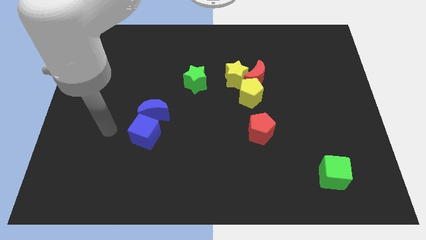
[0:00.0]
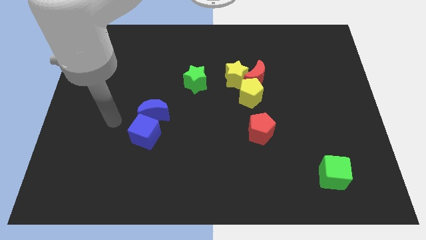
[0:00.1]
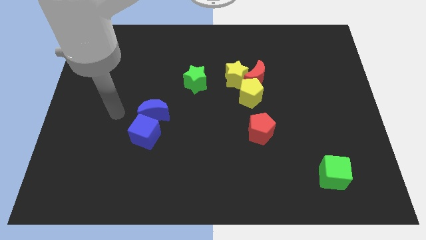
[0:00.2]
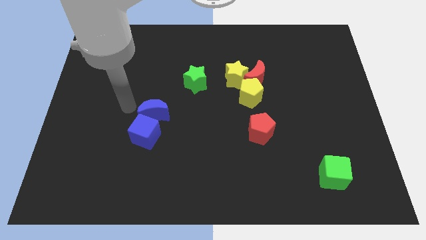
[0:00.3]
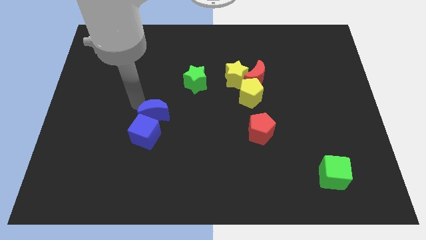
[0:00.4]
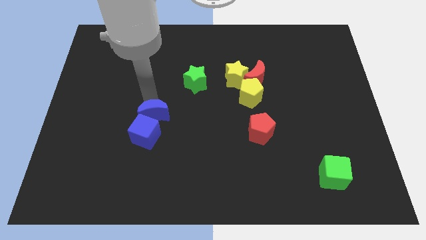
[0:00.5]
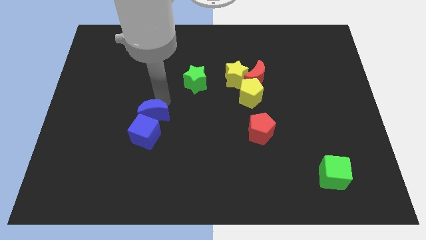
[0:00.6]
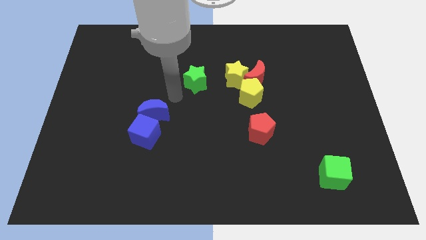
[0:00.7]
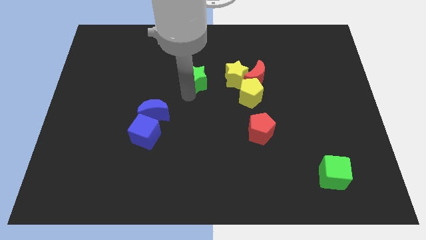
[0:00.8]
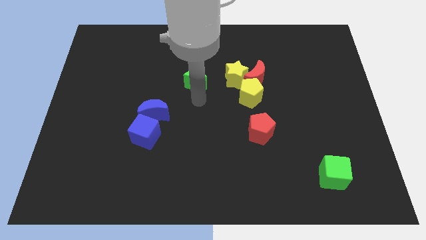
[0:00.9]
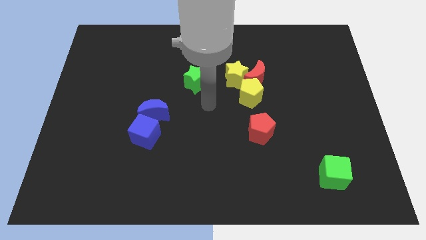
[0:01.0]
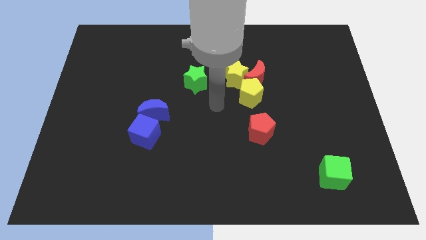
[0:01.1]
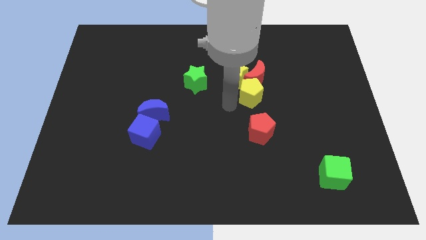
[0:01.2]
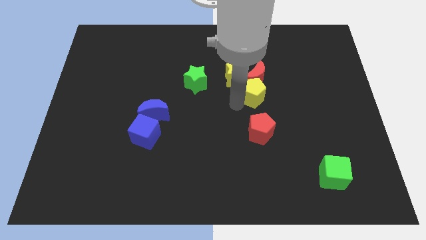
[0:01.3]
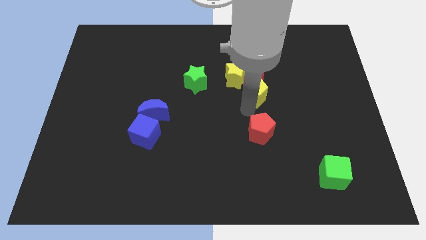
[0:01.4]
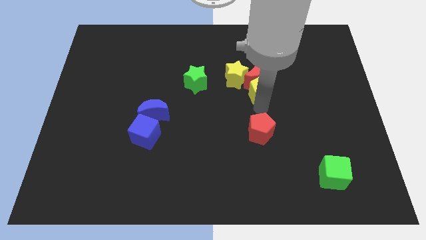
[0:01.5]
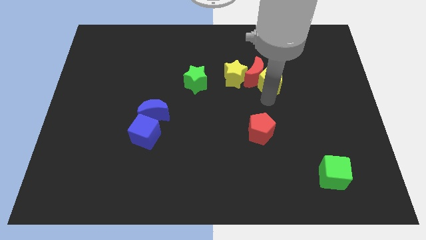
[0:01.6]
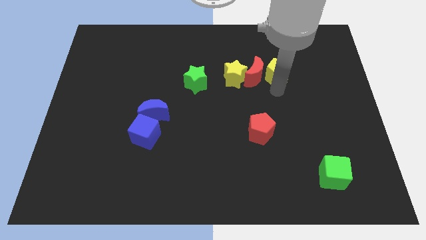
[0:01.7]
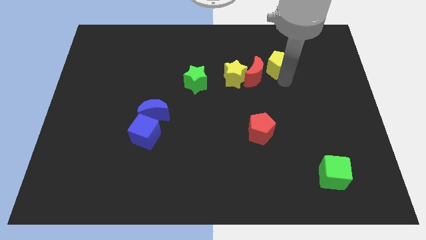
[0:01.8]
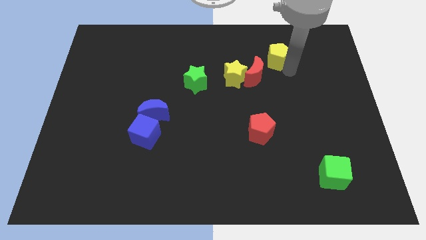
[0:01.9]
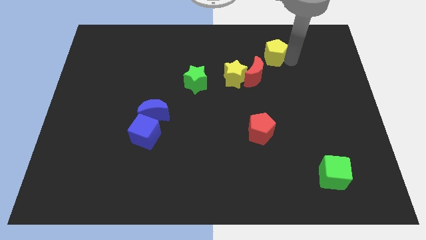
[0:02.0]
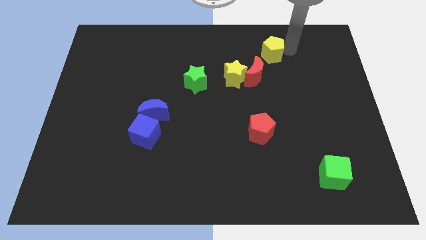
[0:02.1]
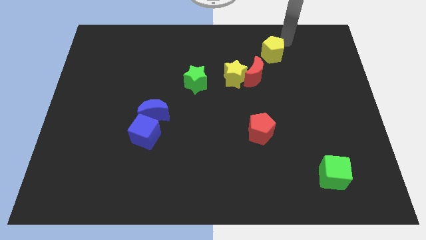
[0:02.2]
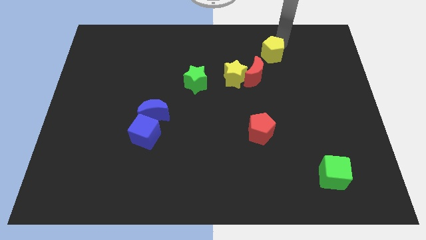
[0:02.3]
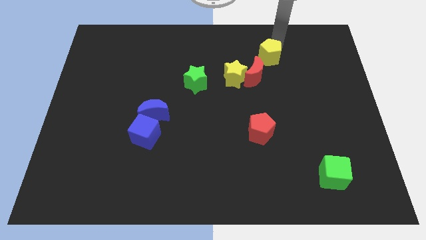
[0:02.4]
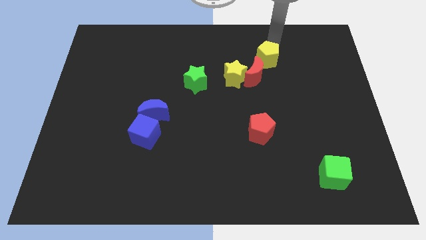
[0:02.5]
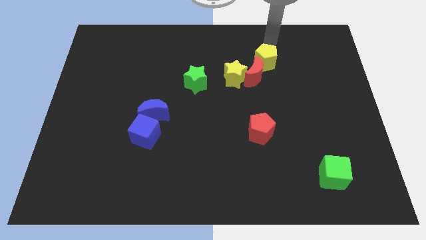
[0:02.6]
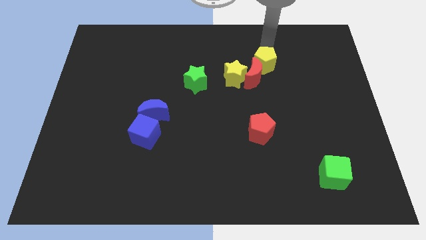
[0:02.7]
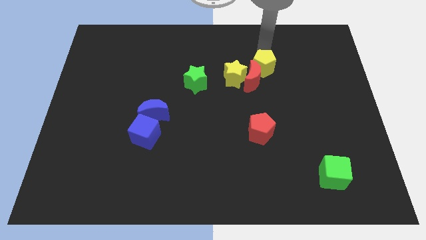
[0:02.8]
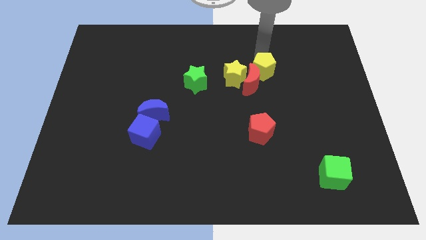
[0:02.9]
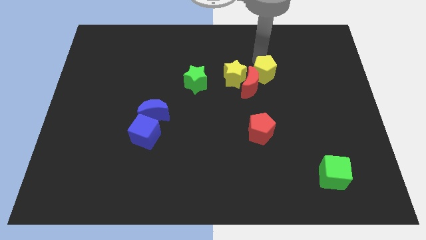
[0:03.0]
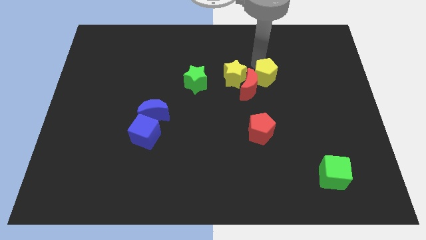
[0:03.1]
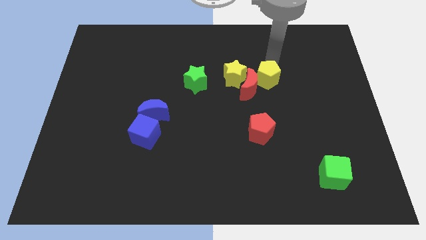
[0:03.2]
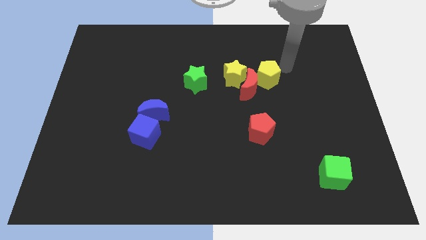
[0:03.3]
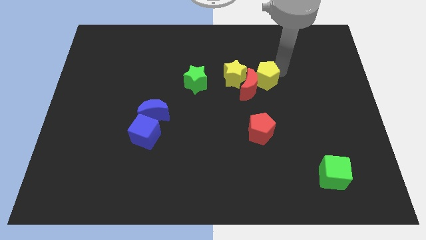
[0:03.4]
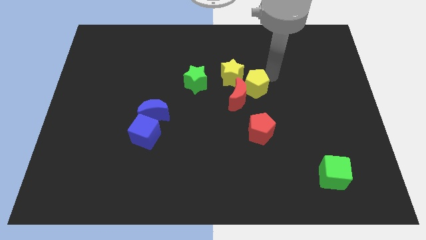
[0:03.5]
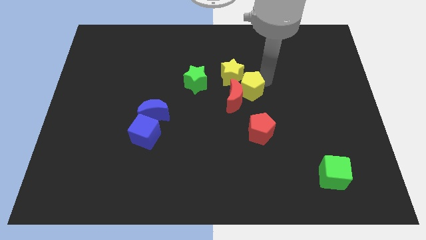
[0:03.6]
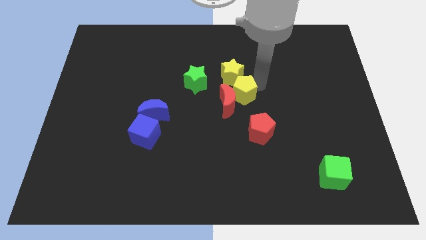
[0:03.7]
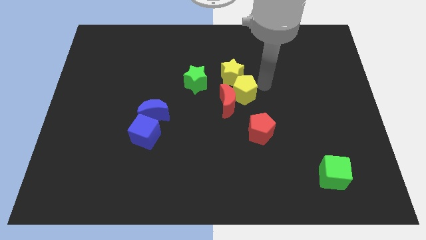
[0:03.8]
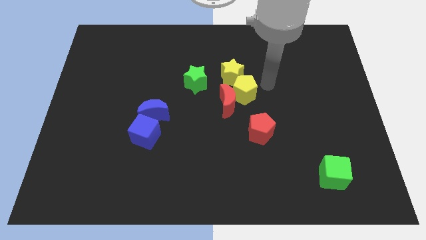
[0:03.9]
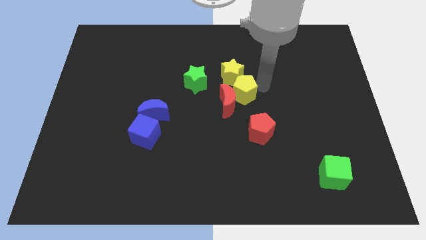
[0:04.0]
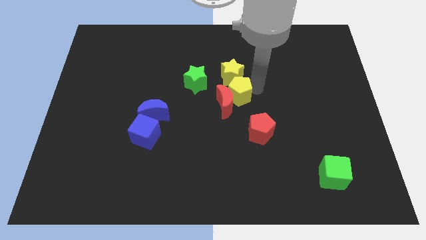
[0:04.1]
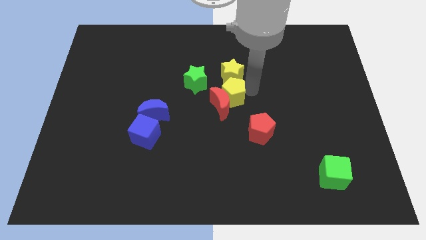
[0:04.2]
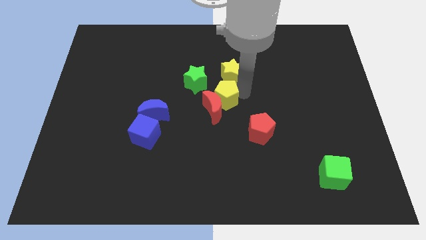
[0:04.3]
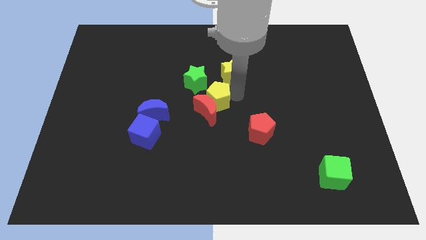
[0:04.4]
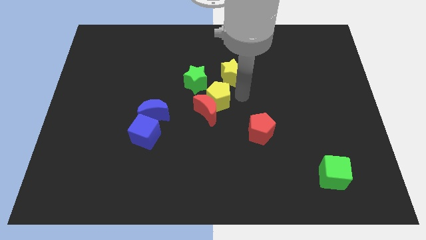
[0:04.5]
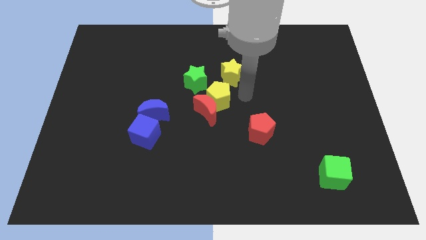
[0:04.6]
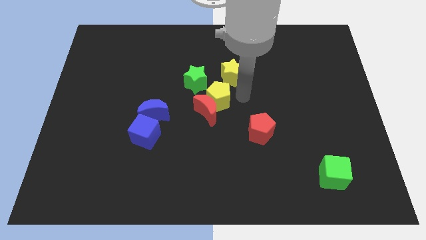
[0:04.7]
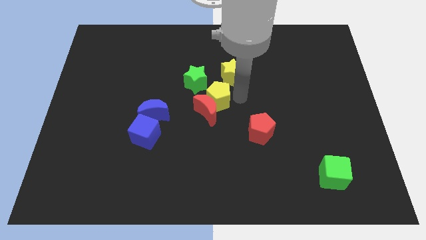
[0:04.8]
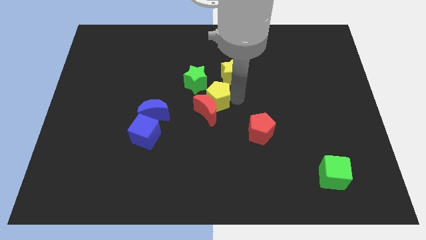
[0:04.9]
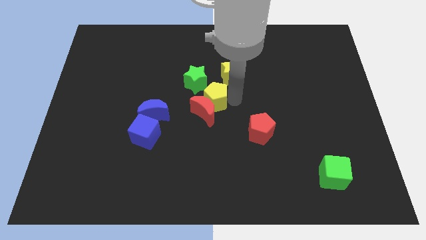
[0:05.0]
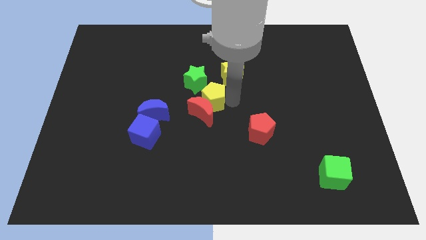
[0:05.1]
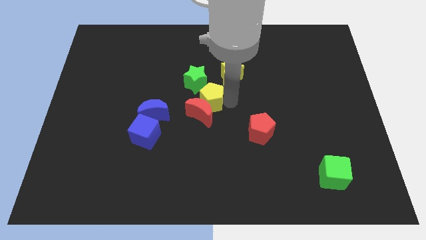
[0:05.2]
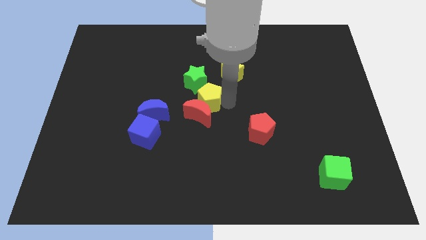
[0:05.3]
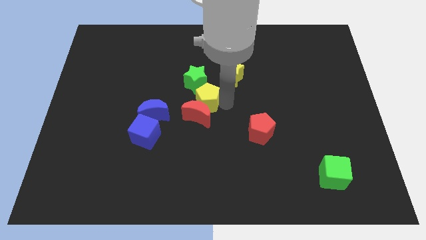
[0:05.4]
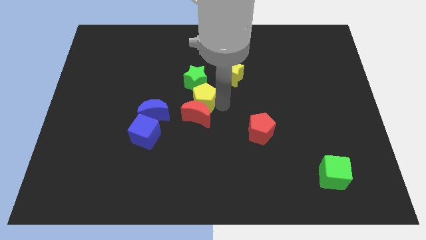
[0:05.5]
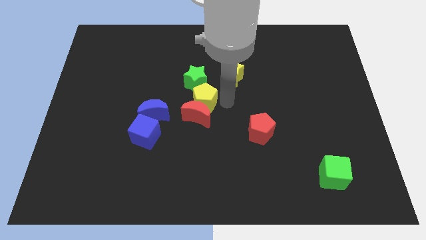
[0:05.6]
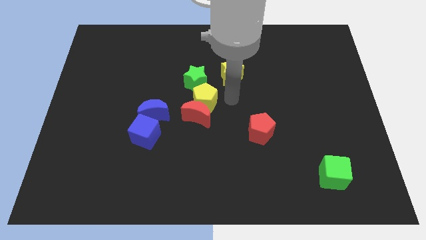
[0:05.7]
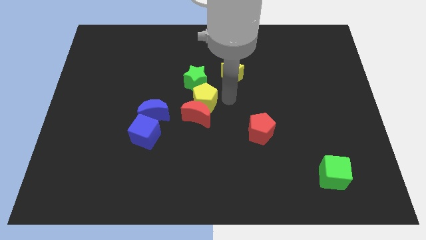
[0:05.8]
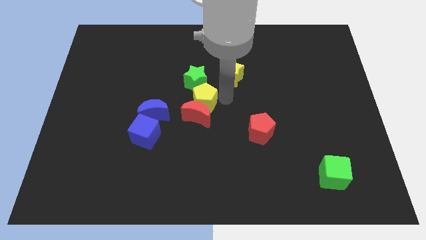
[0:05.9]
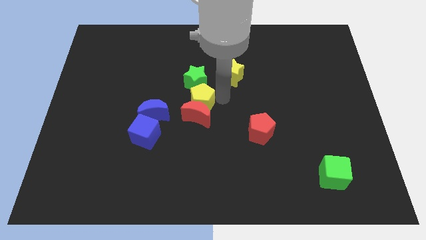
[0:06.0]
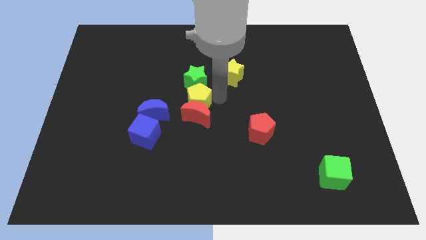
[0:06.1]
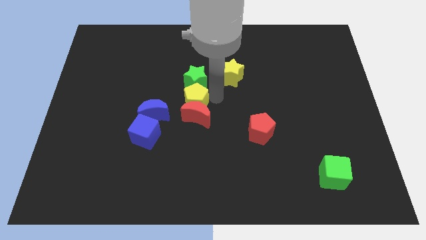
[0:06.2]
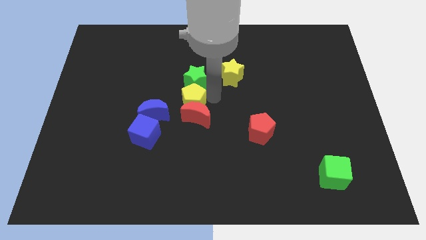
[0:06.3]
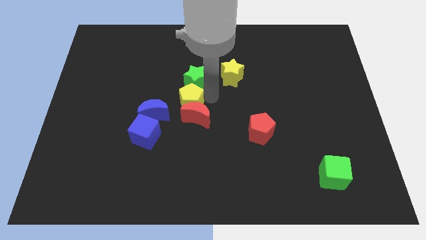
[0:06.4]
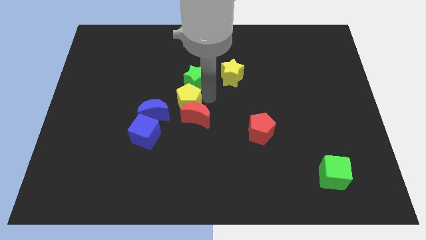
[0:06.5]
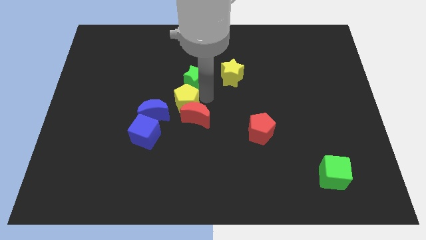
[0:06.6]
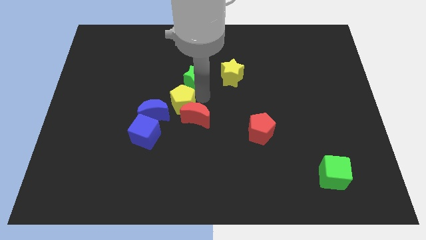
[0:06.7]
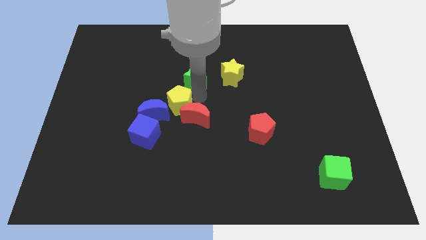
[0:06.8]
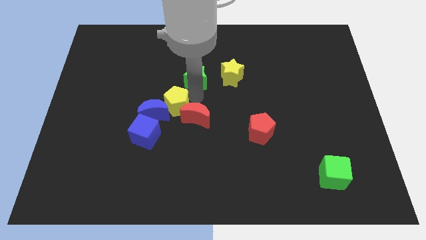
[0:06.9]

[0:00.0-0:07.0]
move the yellow pentagon next to the blue moon
